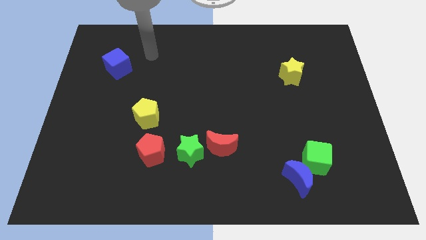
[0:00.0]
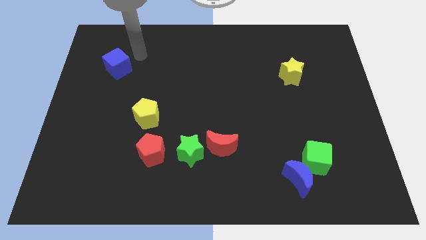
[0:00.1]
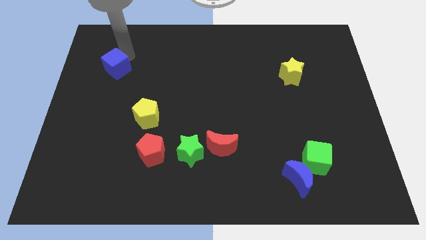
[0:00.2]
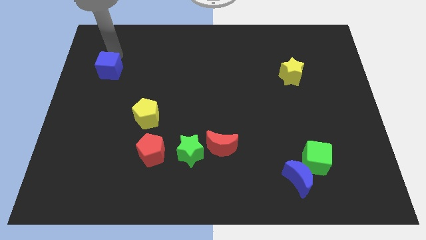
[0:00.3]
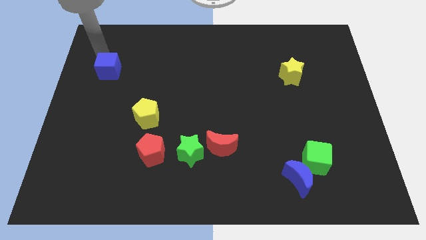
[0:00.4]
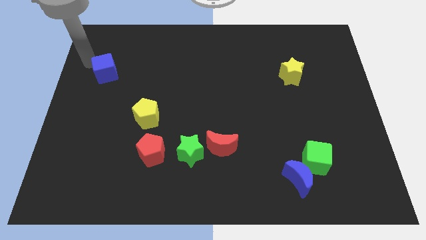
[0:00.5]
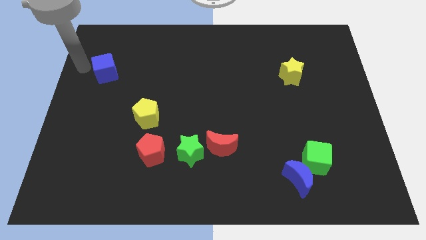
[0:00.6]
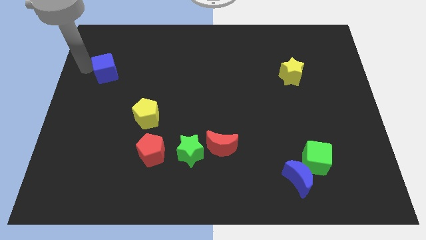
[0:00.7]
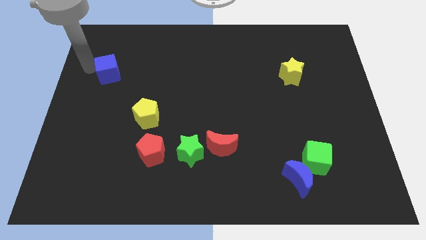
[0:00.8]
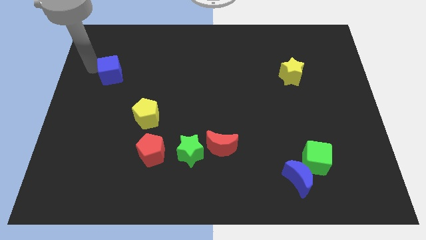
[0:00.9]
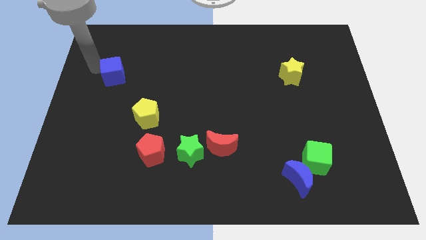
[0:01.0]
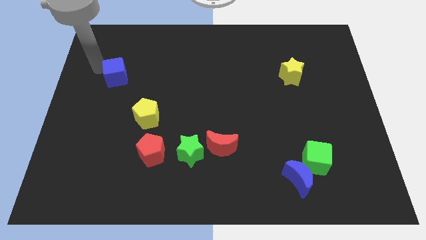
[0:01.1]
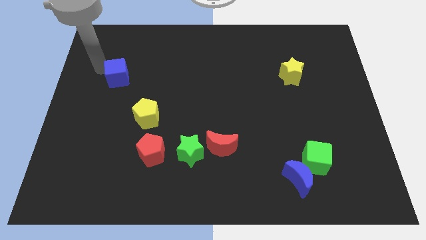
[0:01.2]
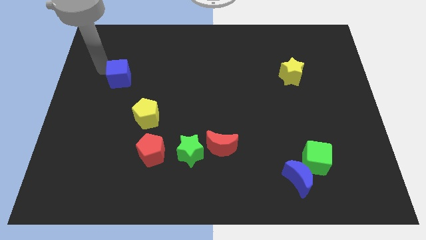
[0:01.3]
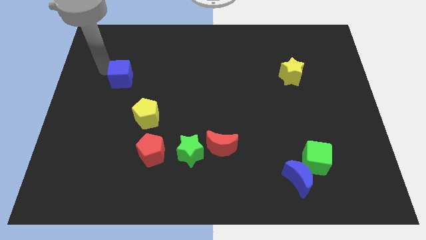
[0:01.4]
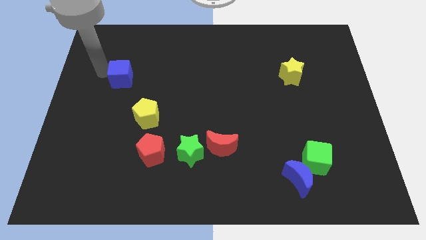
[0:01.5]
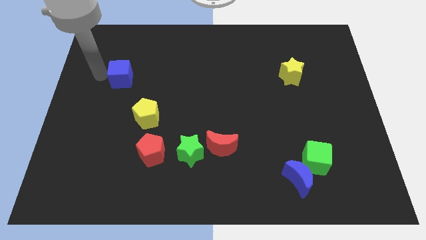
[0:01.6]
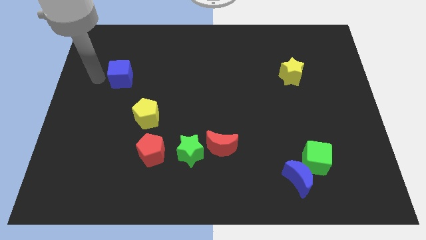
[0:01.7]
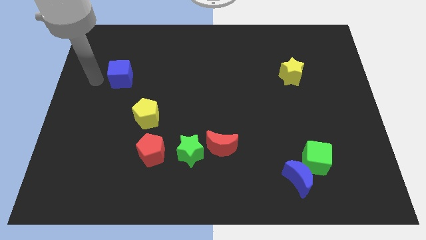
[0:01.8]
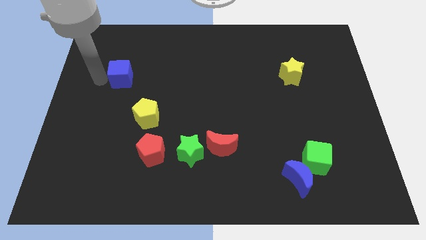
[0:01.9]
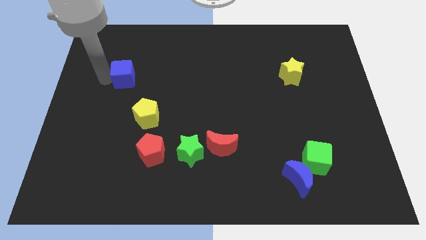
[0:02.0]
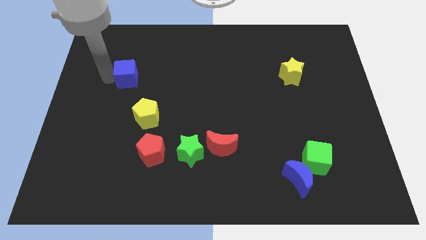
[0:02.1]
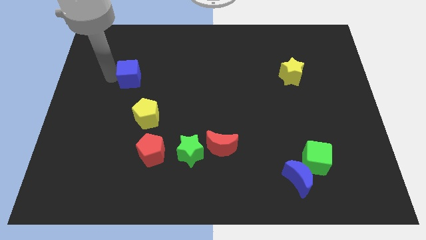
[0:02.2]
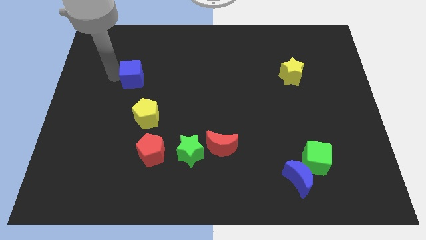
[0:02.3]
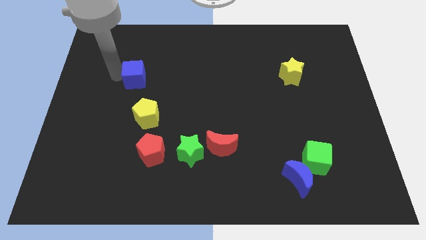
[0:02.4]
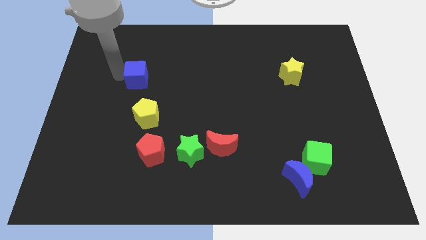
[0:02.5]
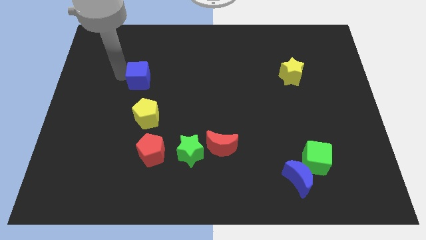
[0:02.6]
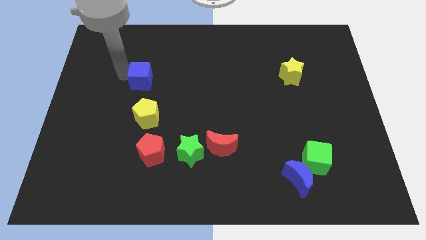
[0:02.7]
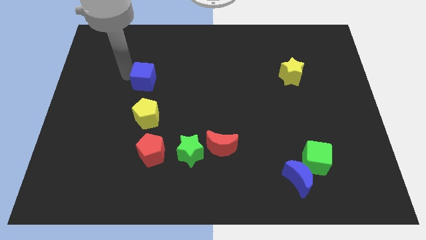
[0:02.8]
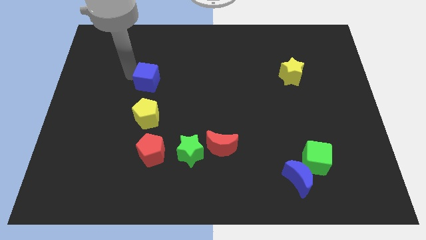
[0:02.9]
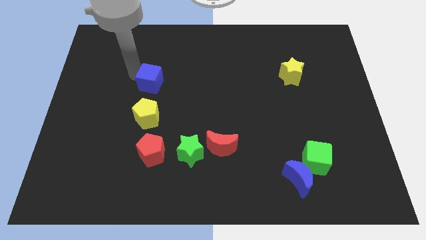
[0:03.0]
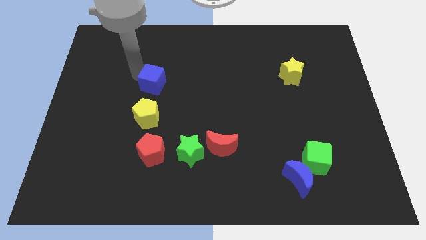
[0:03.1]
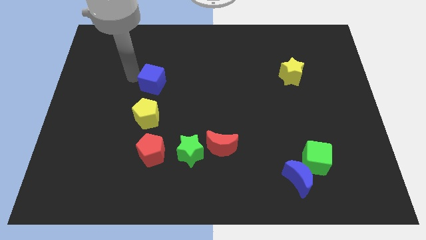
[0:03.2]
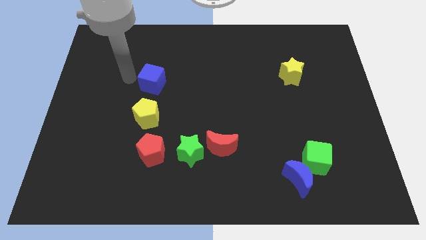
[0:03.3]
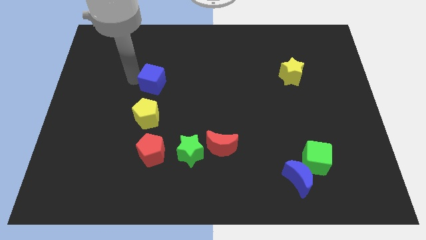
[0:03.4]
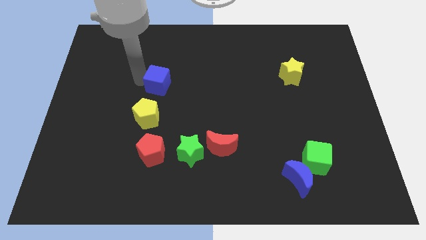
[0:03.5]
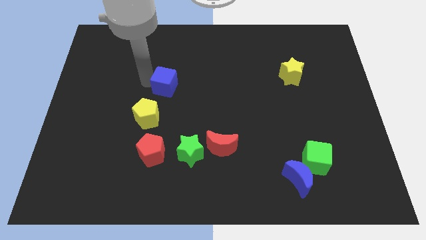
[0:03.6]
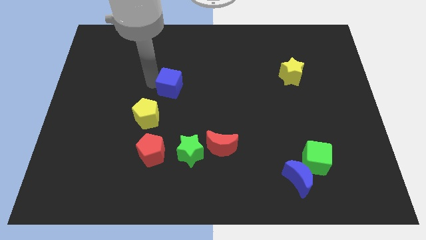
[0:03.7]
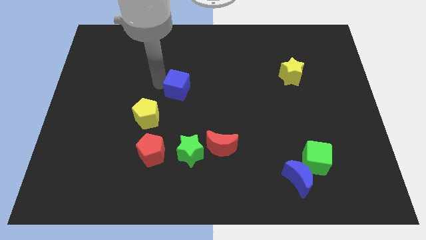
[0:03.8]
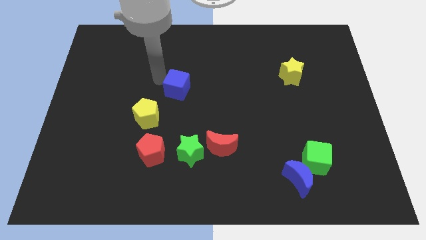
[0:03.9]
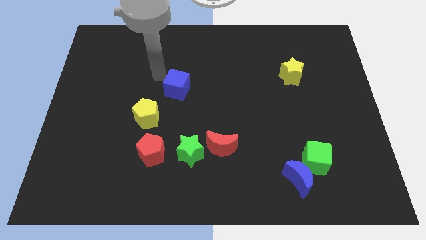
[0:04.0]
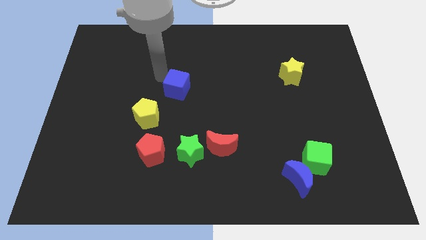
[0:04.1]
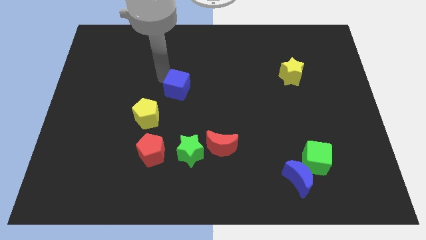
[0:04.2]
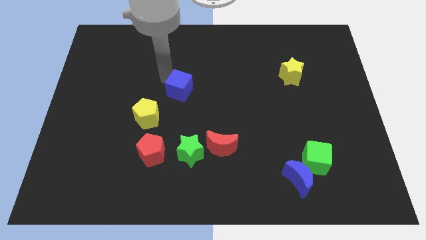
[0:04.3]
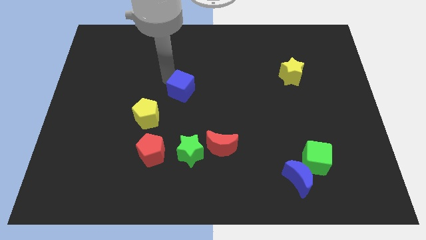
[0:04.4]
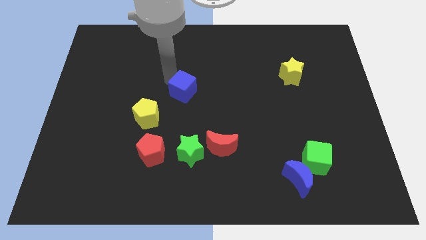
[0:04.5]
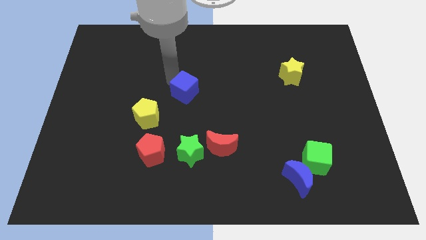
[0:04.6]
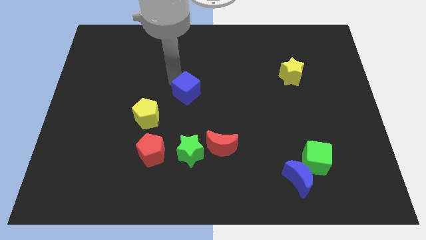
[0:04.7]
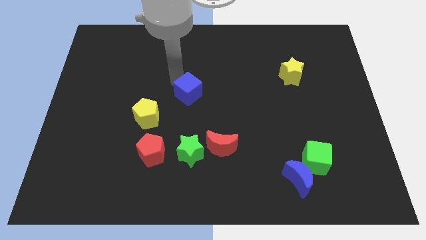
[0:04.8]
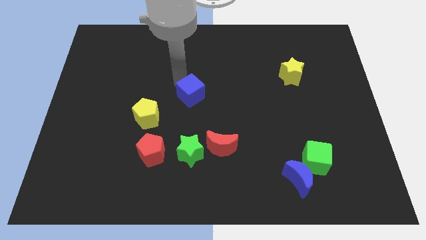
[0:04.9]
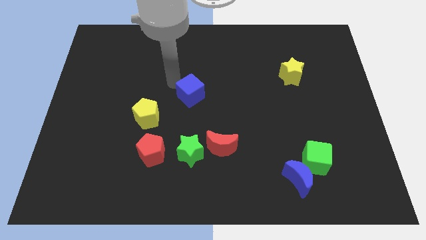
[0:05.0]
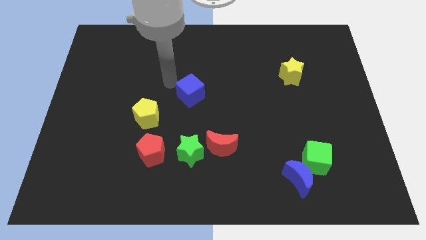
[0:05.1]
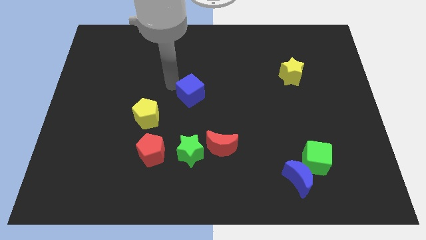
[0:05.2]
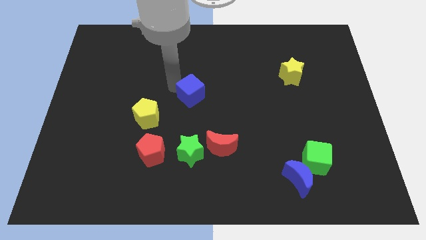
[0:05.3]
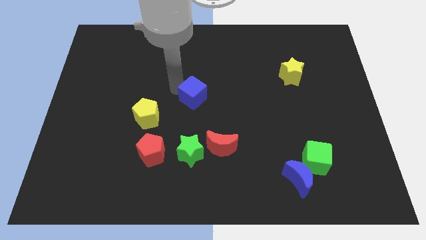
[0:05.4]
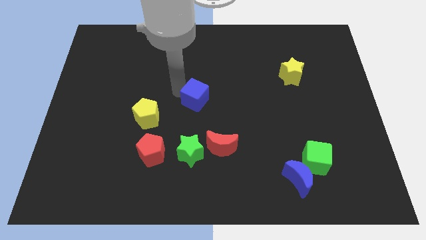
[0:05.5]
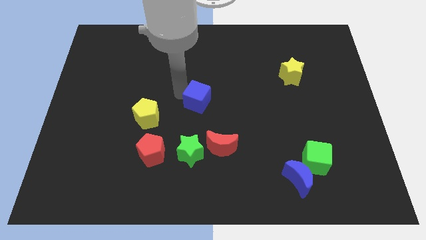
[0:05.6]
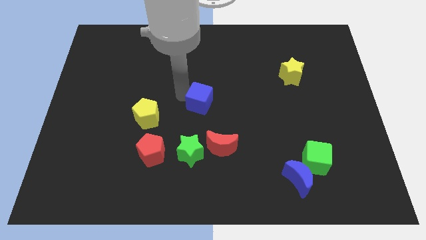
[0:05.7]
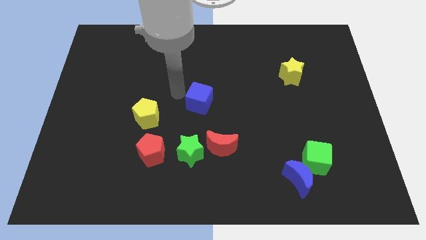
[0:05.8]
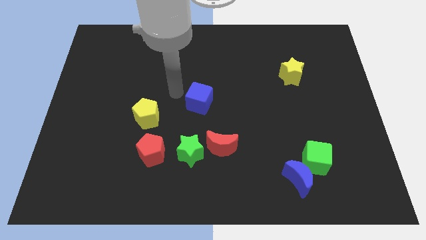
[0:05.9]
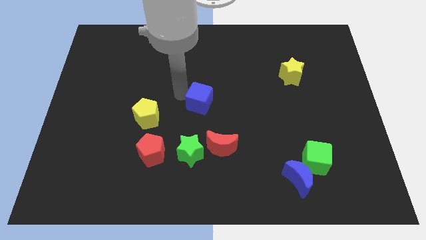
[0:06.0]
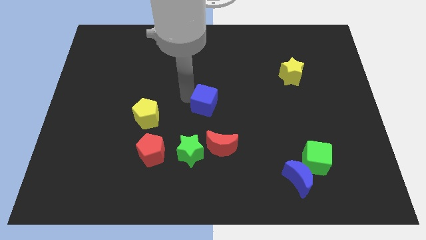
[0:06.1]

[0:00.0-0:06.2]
move the blue cube above the red moon

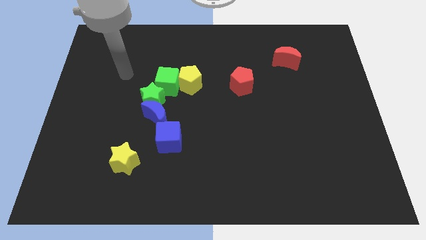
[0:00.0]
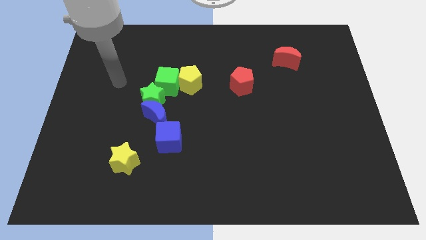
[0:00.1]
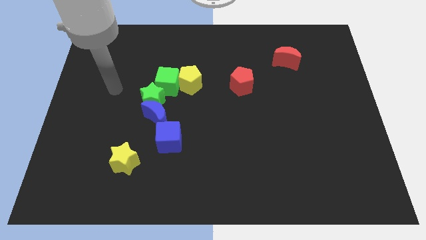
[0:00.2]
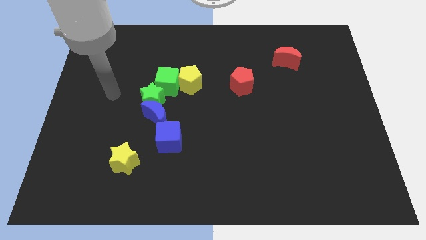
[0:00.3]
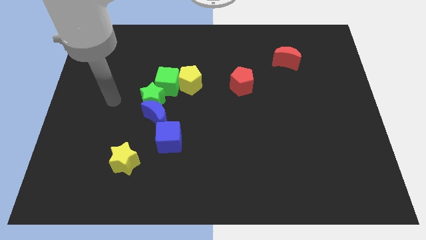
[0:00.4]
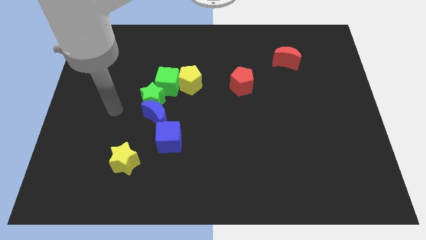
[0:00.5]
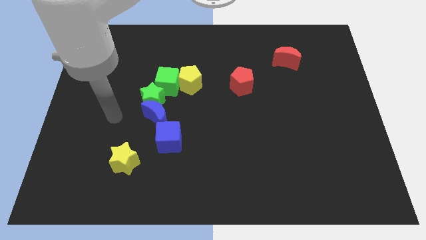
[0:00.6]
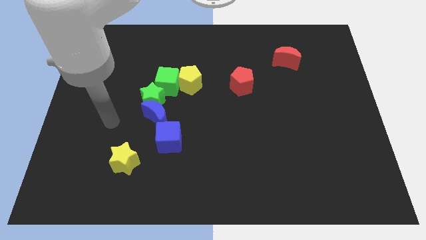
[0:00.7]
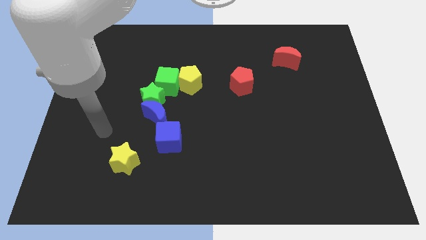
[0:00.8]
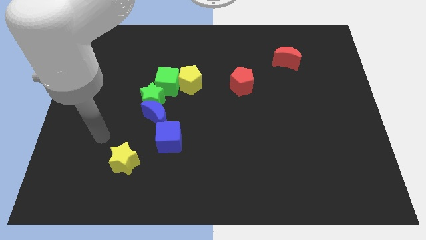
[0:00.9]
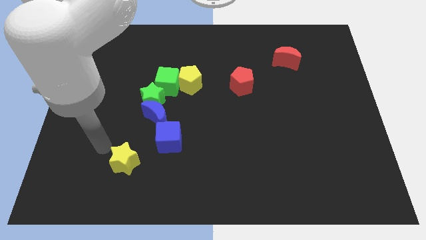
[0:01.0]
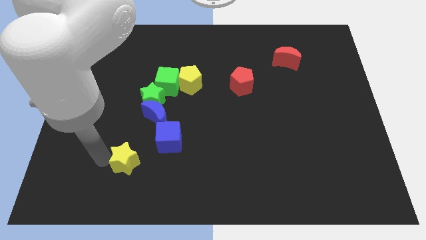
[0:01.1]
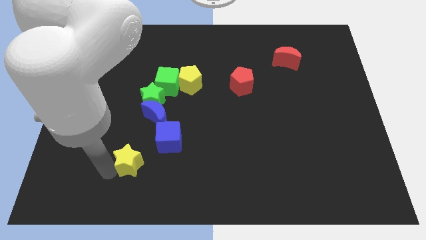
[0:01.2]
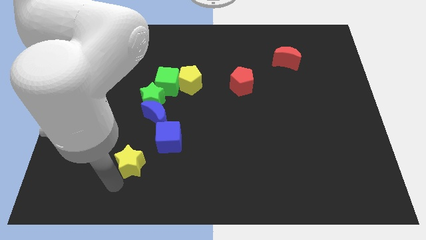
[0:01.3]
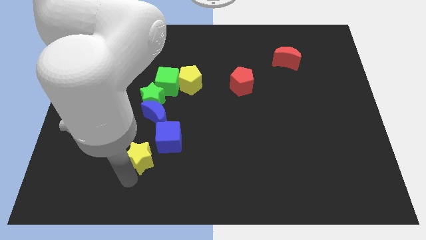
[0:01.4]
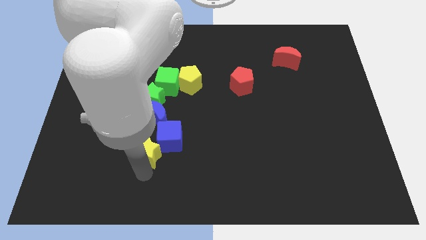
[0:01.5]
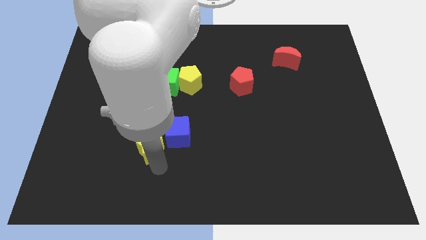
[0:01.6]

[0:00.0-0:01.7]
put the blue cube to the bottom right side of the green star
